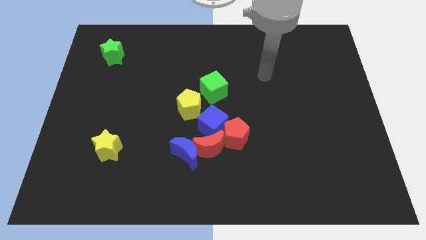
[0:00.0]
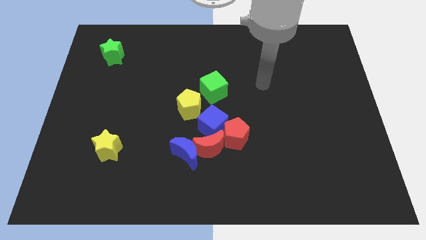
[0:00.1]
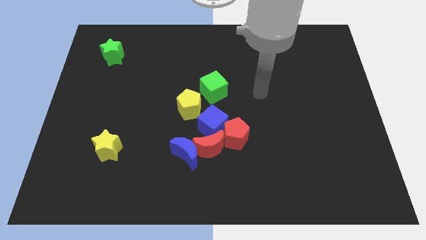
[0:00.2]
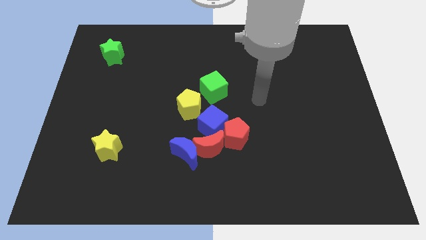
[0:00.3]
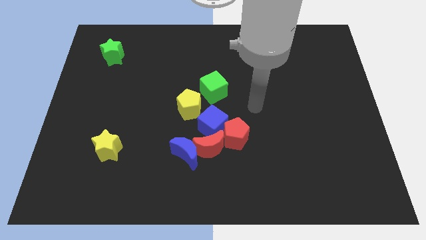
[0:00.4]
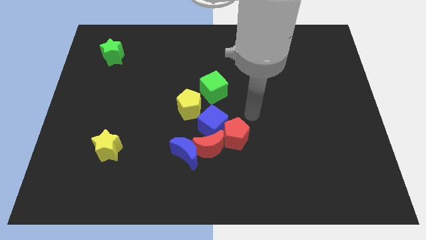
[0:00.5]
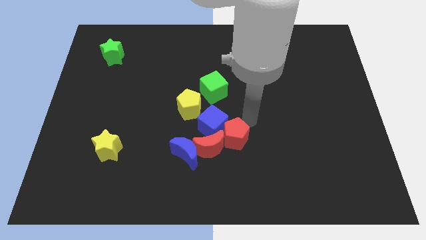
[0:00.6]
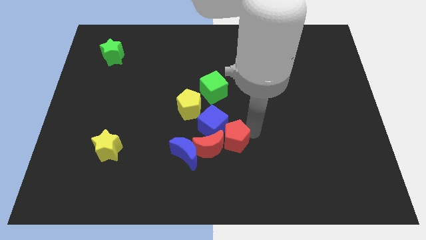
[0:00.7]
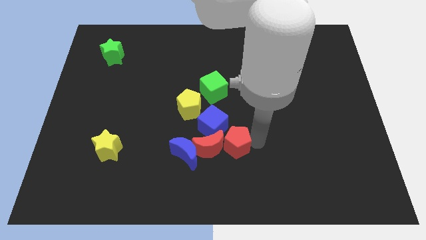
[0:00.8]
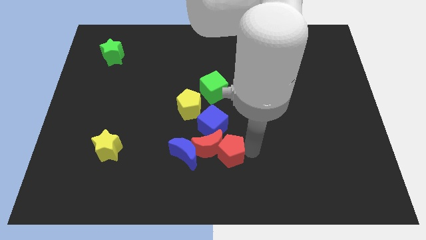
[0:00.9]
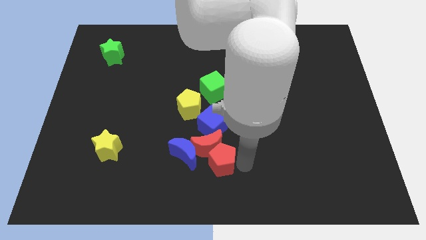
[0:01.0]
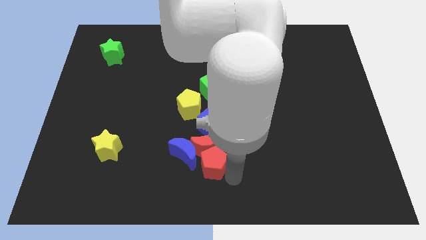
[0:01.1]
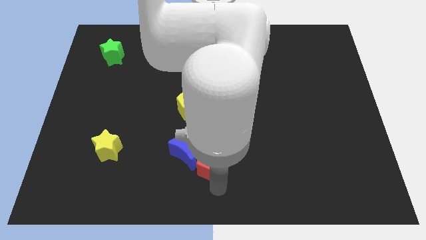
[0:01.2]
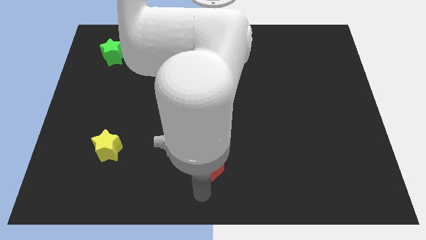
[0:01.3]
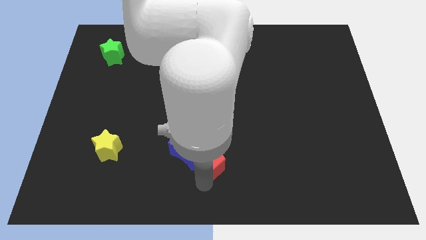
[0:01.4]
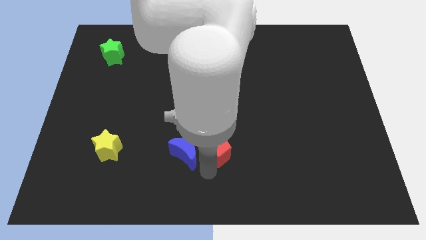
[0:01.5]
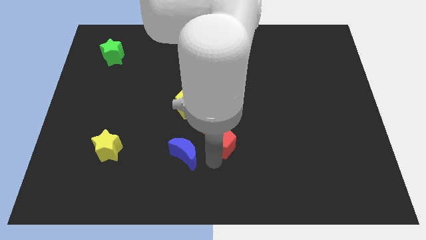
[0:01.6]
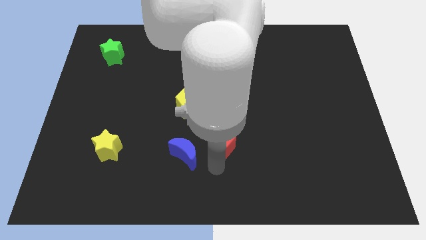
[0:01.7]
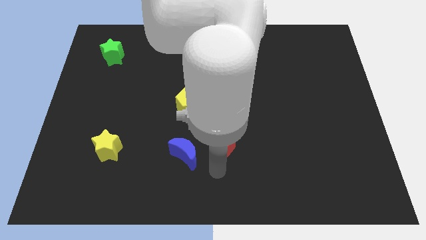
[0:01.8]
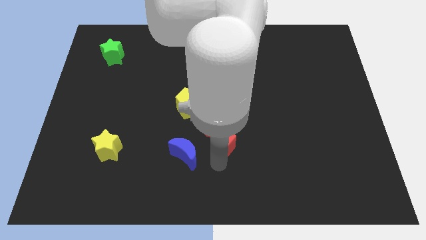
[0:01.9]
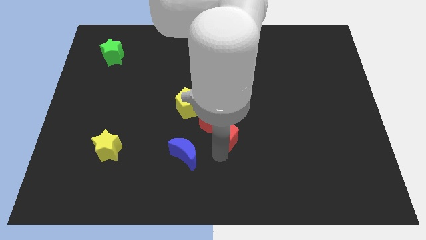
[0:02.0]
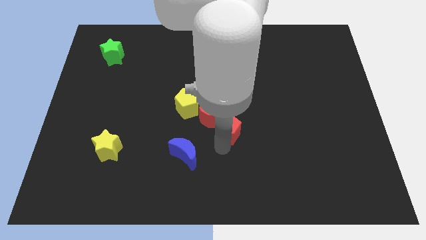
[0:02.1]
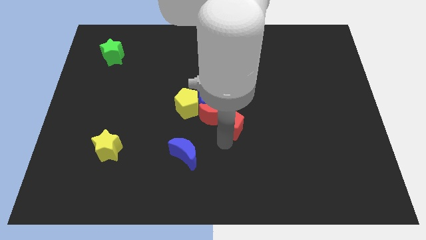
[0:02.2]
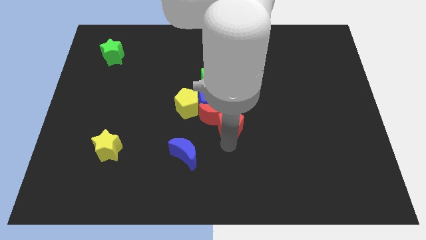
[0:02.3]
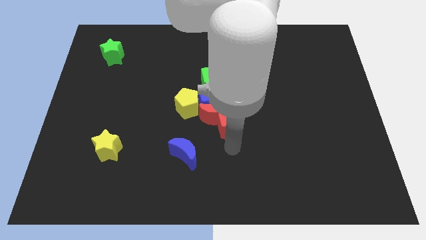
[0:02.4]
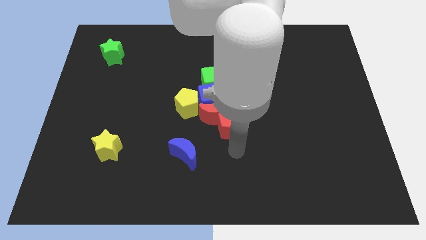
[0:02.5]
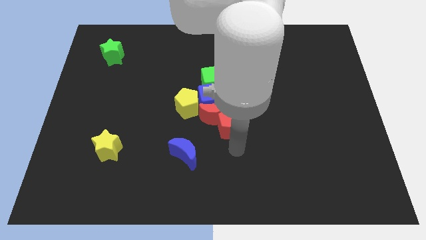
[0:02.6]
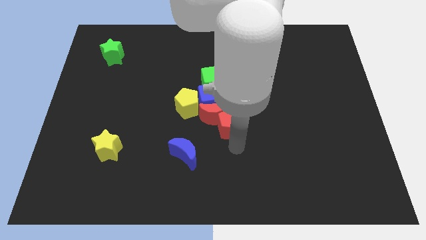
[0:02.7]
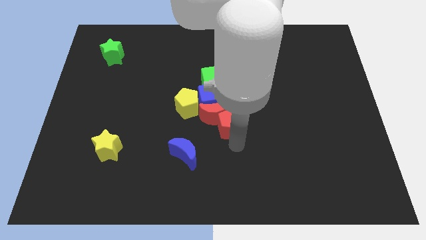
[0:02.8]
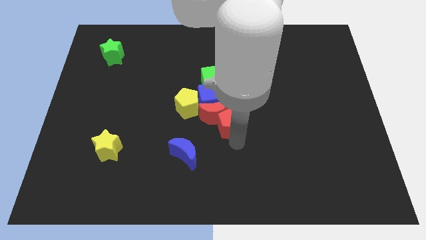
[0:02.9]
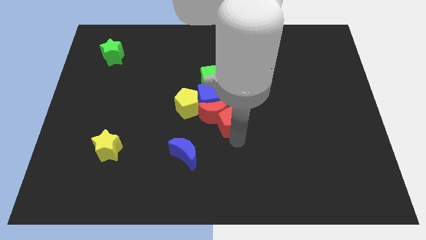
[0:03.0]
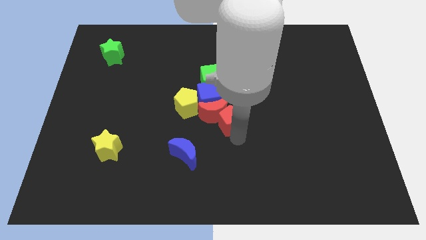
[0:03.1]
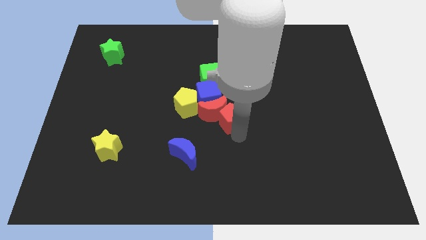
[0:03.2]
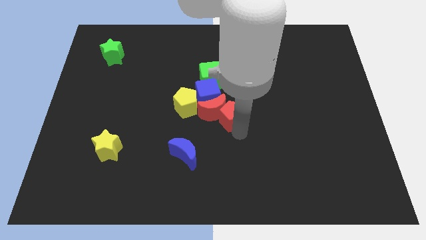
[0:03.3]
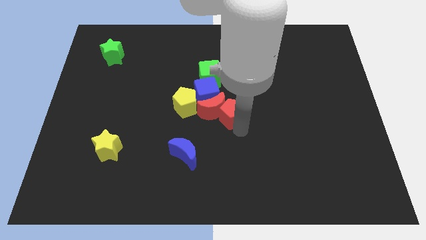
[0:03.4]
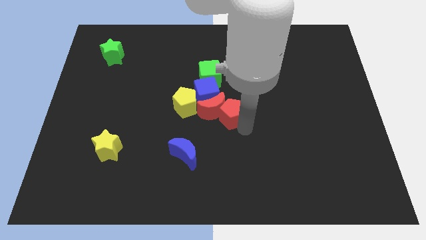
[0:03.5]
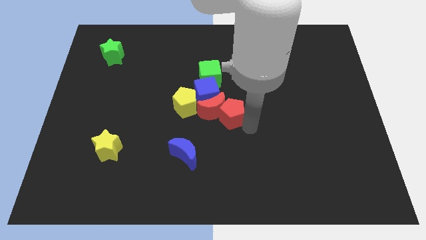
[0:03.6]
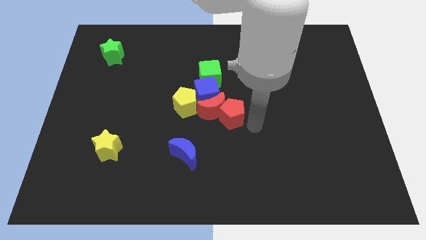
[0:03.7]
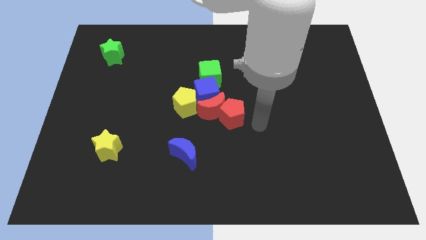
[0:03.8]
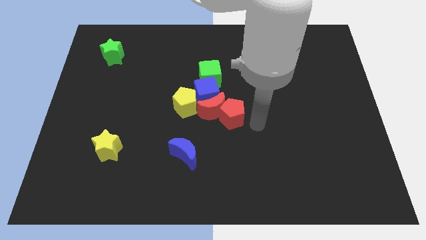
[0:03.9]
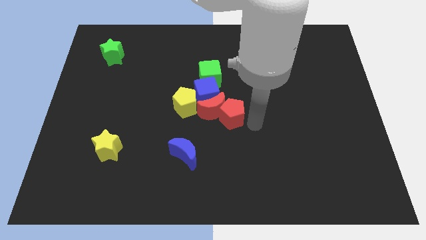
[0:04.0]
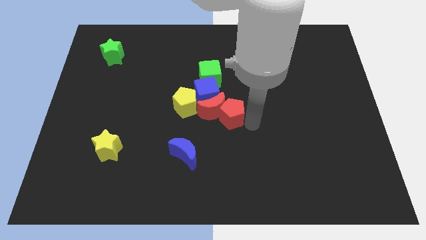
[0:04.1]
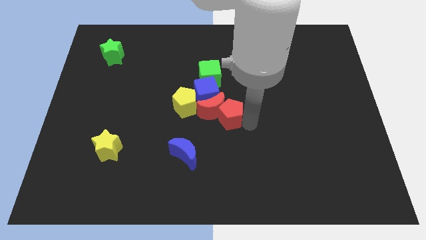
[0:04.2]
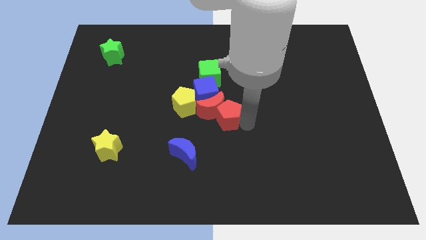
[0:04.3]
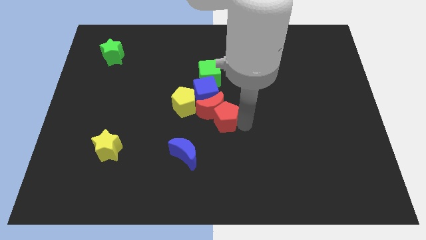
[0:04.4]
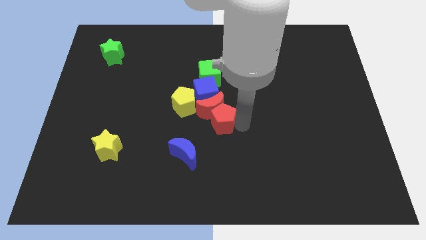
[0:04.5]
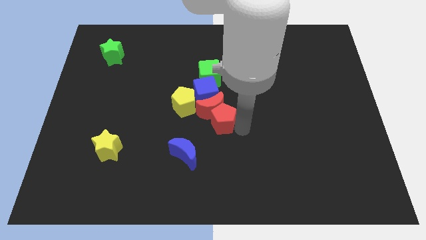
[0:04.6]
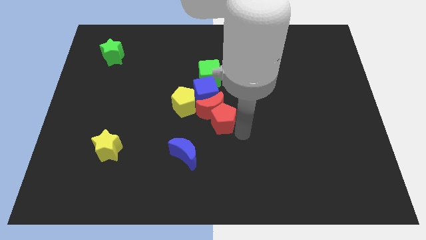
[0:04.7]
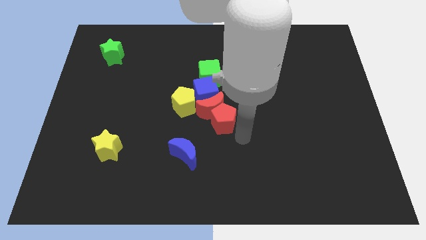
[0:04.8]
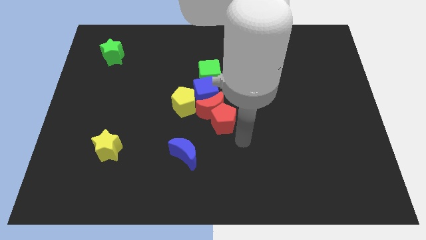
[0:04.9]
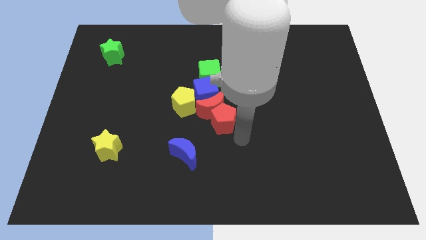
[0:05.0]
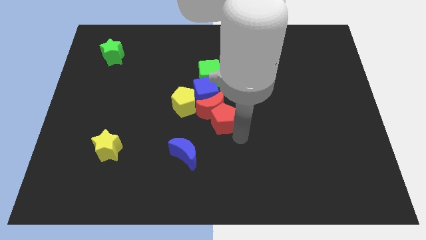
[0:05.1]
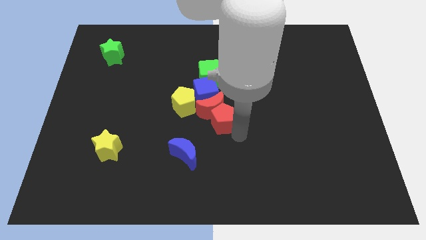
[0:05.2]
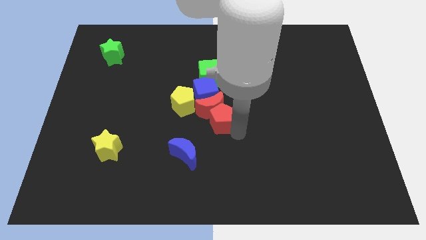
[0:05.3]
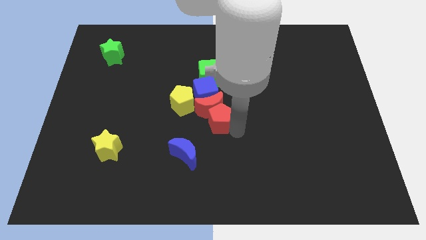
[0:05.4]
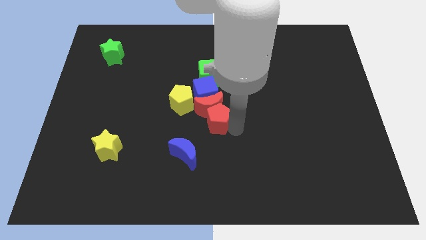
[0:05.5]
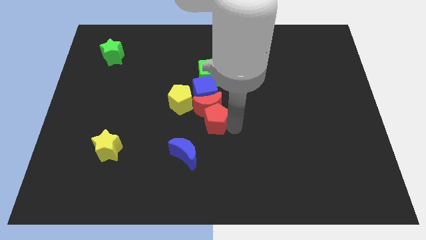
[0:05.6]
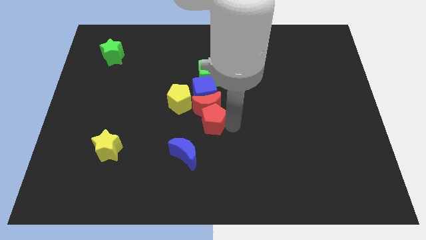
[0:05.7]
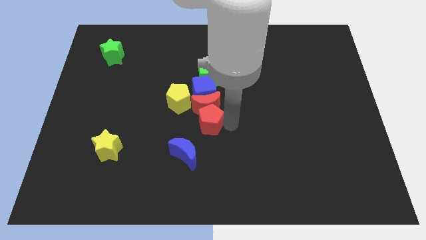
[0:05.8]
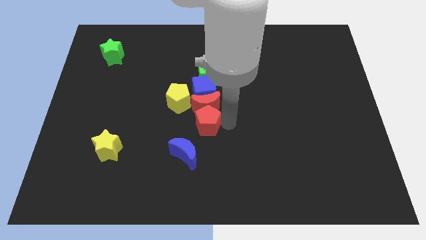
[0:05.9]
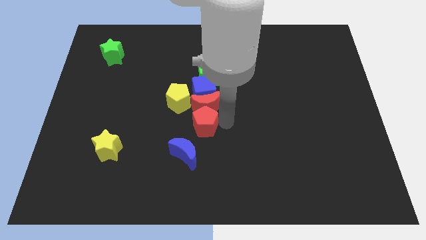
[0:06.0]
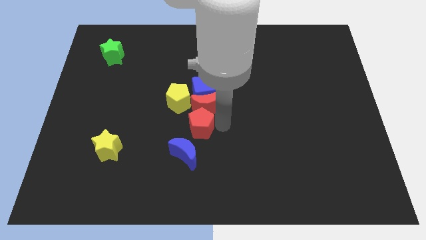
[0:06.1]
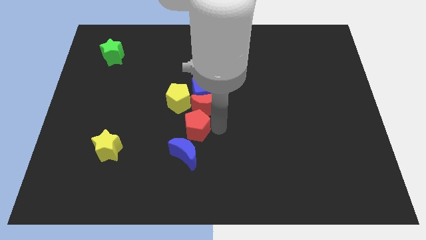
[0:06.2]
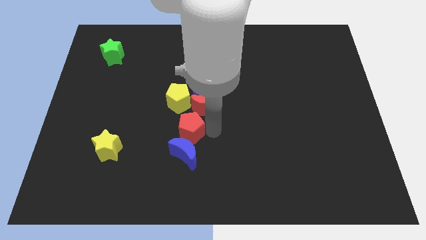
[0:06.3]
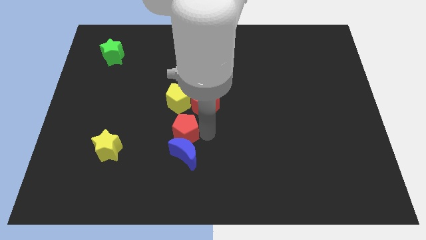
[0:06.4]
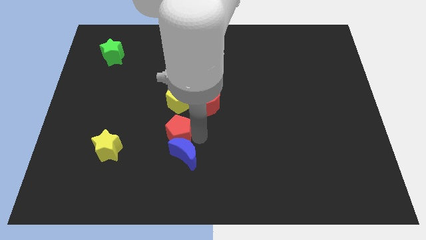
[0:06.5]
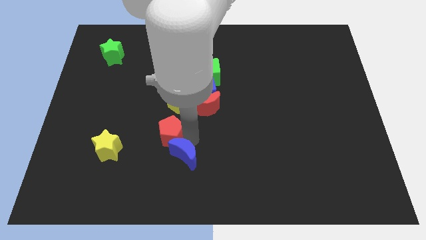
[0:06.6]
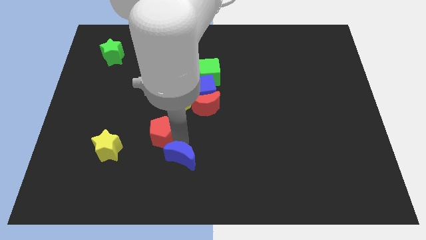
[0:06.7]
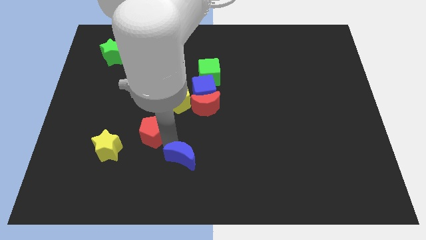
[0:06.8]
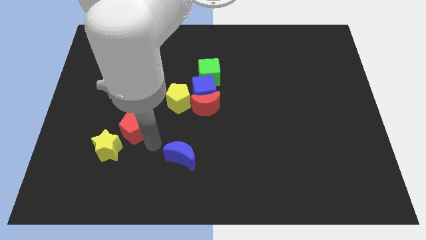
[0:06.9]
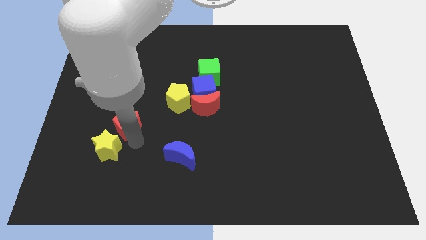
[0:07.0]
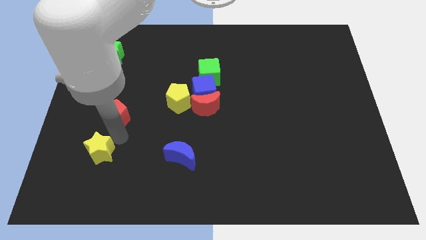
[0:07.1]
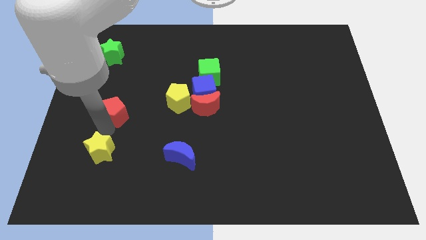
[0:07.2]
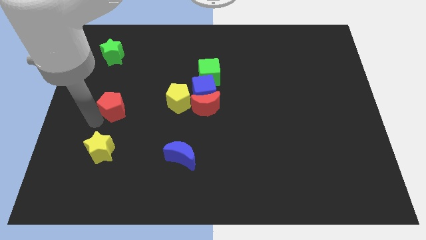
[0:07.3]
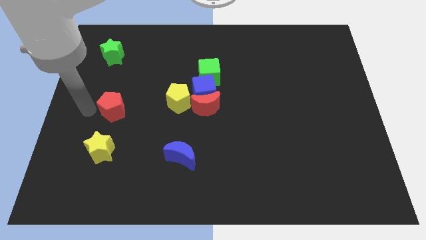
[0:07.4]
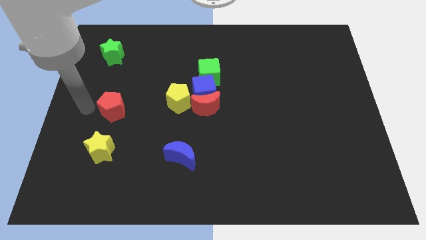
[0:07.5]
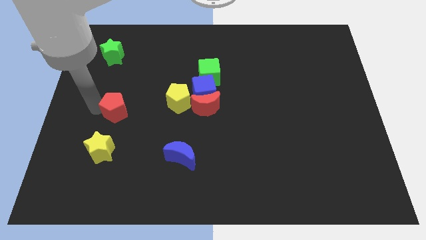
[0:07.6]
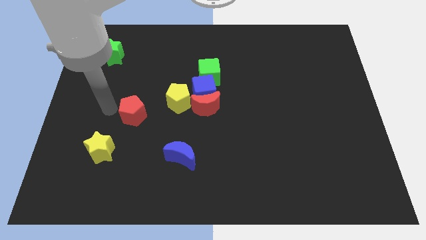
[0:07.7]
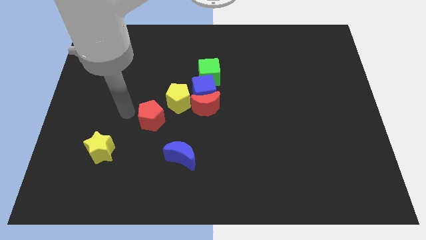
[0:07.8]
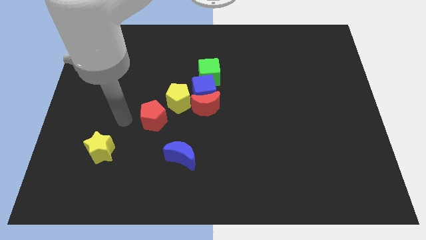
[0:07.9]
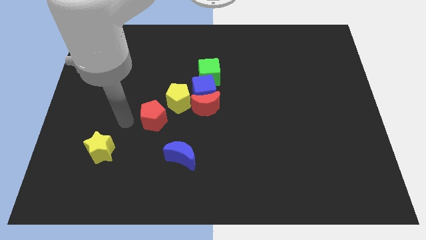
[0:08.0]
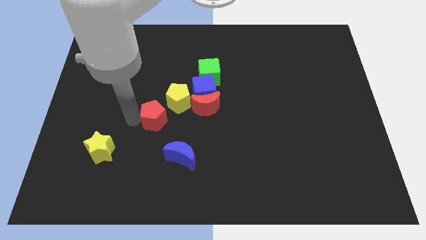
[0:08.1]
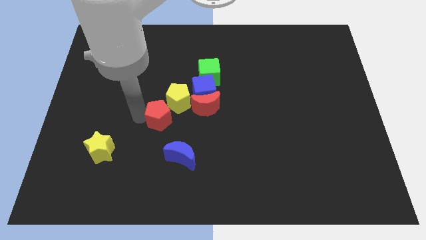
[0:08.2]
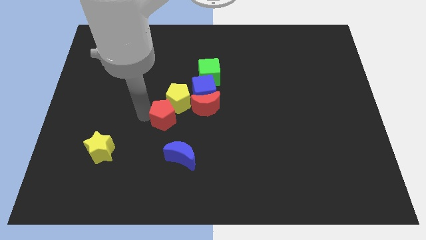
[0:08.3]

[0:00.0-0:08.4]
move the red pentagon next to the yellow pentagon

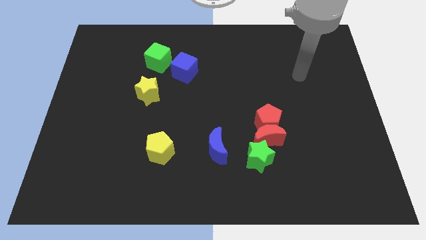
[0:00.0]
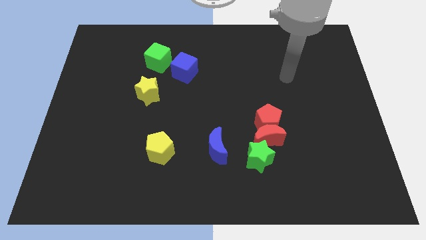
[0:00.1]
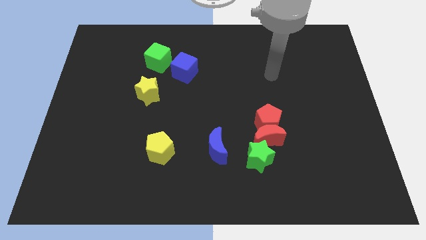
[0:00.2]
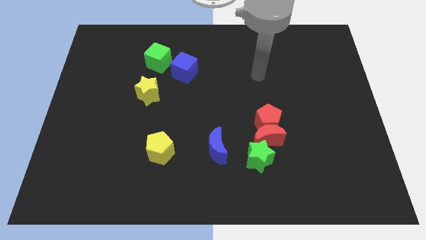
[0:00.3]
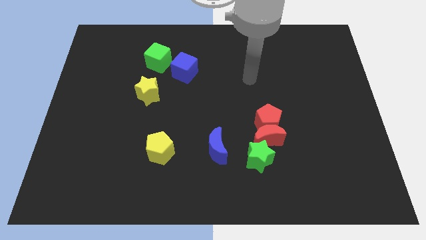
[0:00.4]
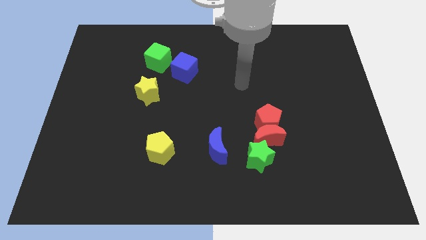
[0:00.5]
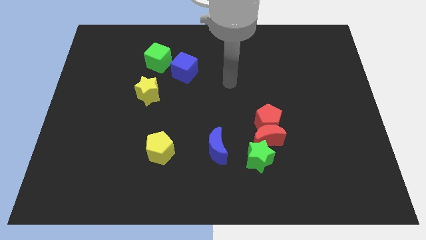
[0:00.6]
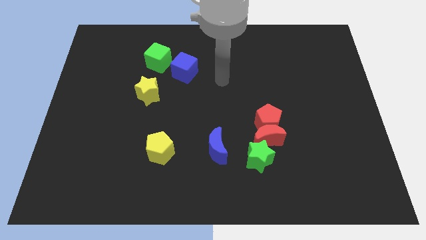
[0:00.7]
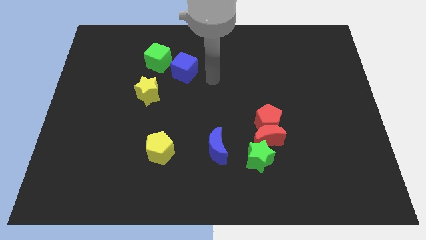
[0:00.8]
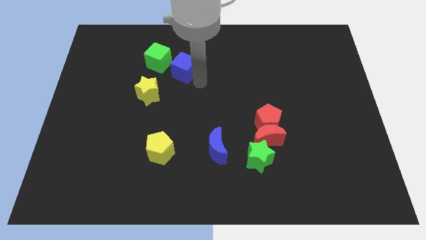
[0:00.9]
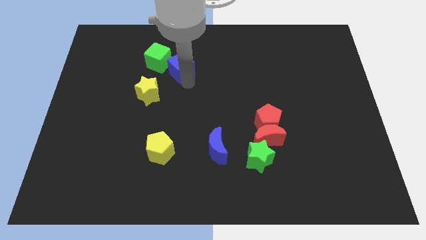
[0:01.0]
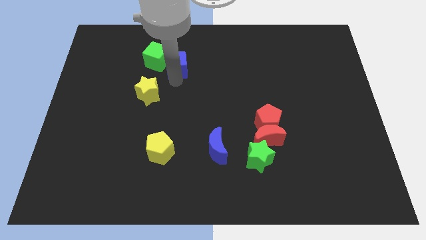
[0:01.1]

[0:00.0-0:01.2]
push the green cube towards the blue cube
